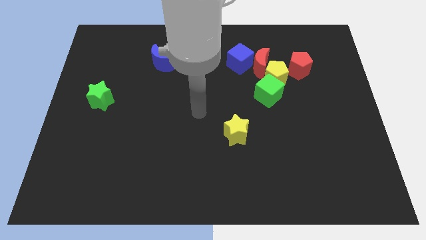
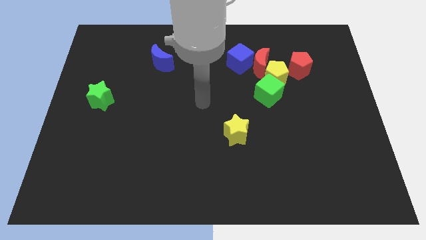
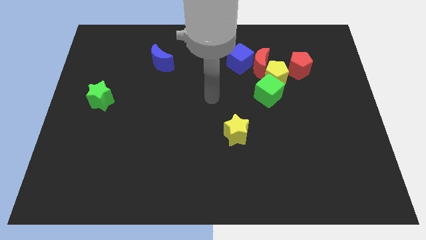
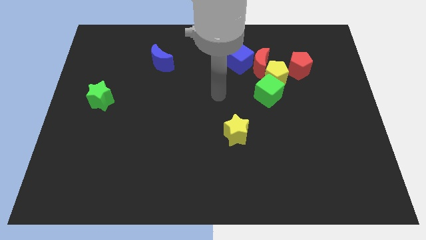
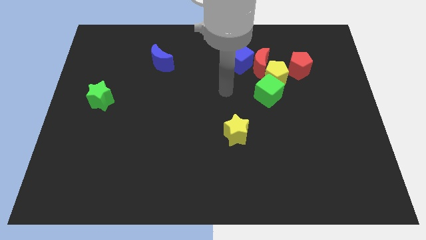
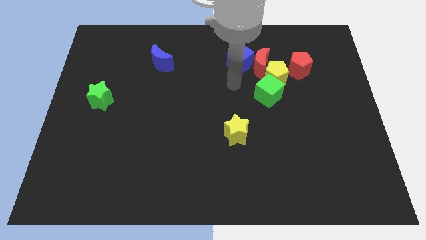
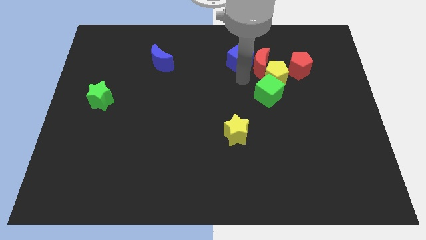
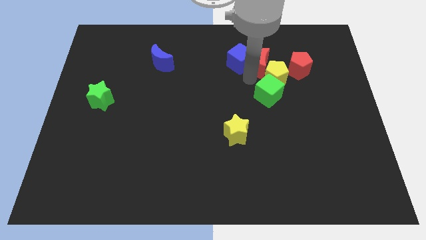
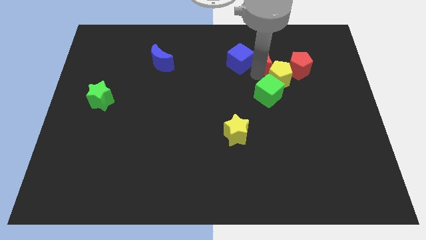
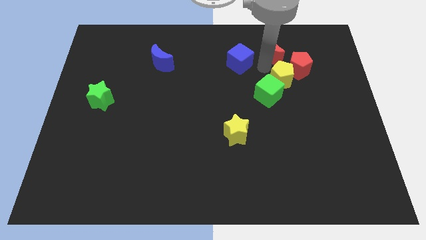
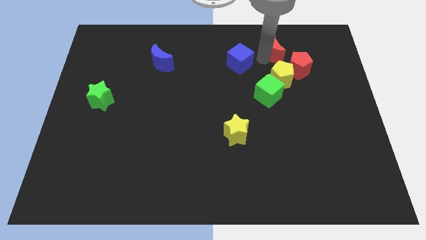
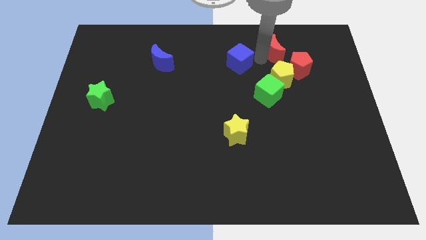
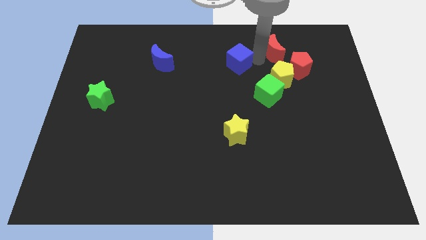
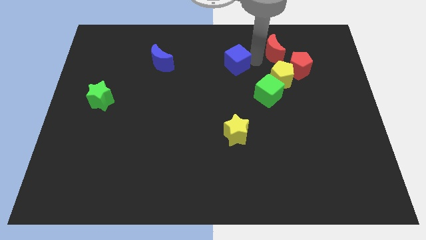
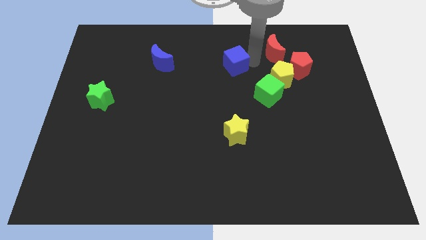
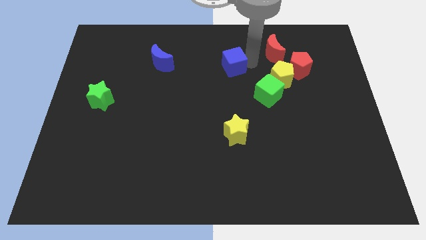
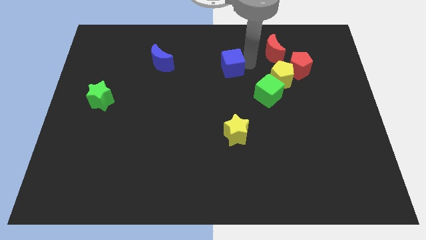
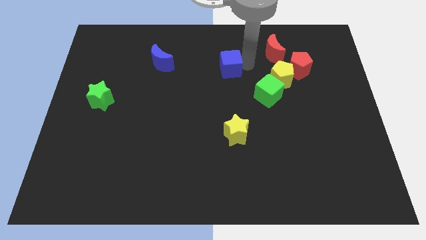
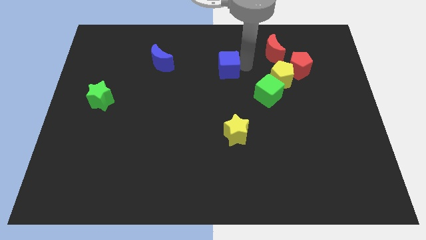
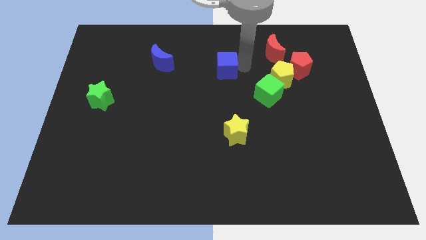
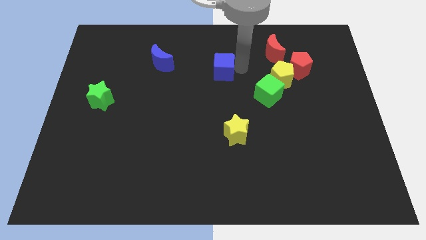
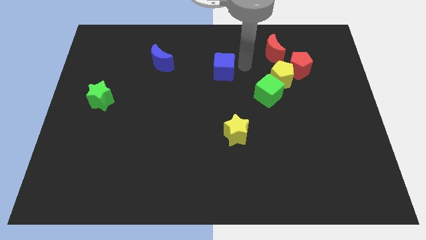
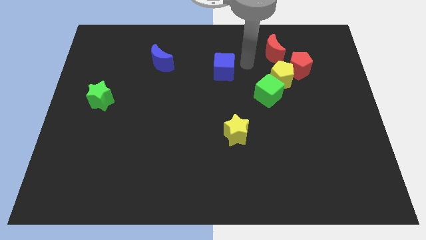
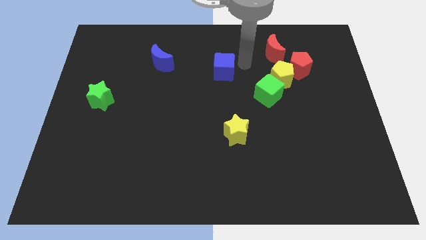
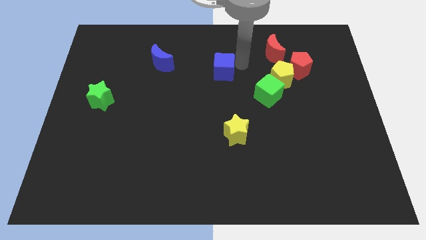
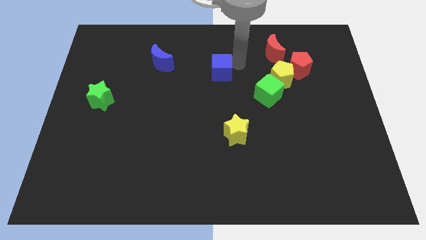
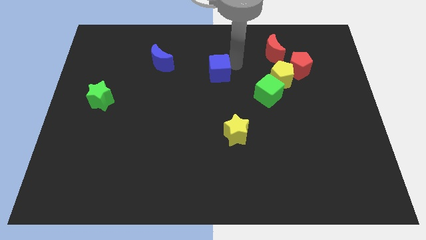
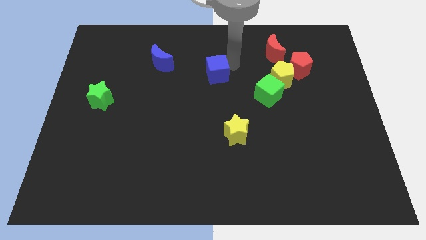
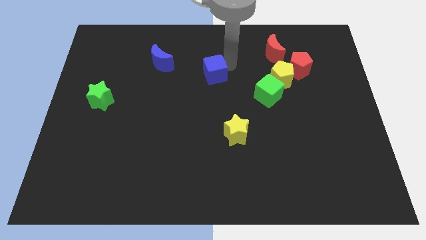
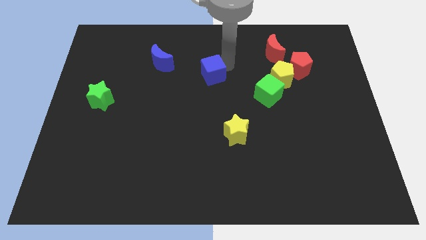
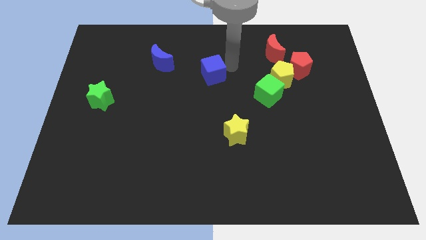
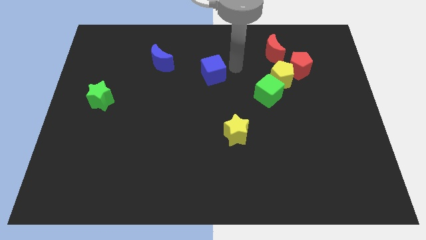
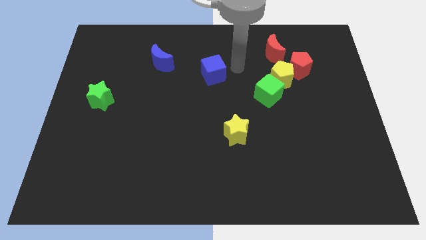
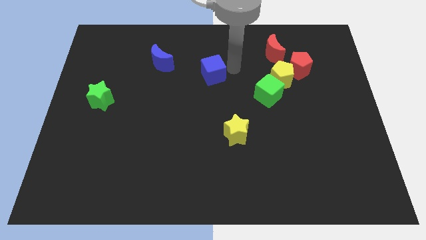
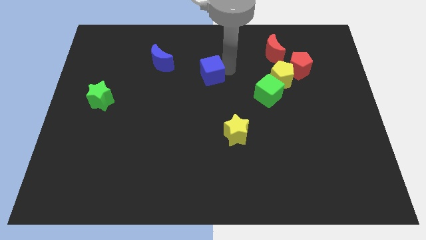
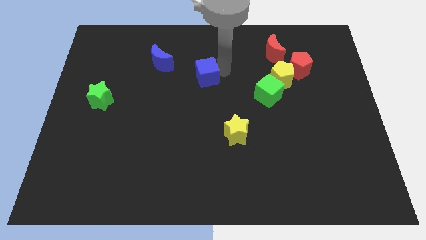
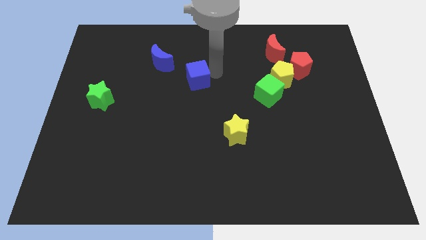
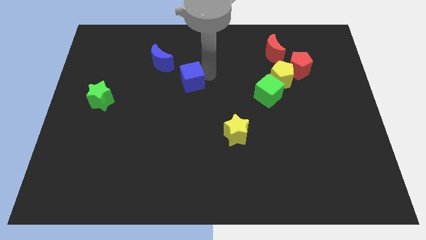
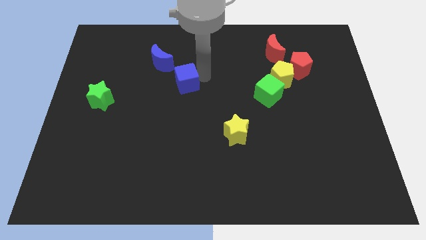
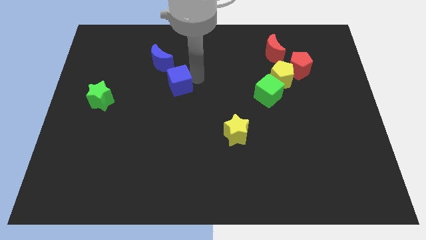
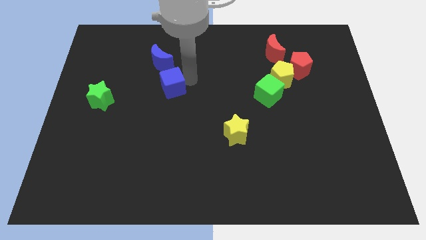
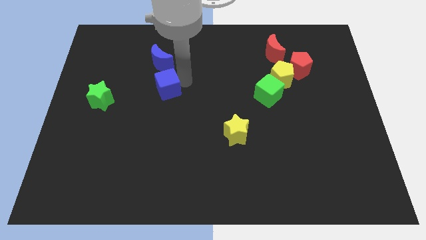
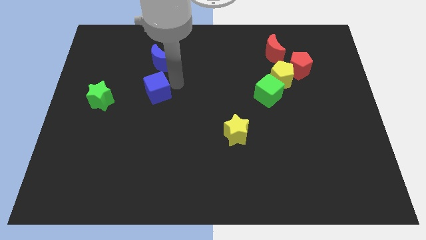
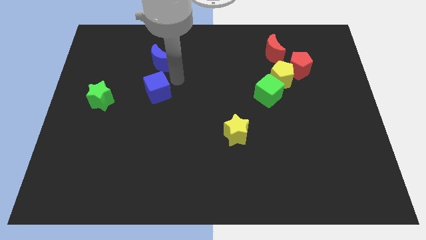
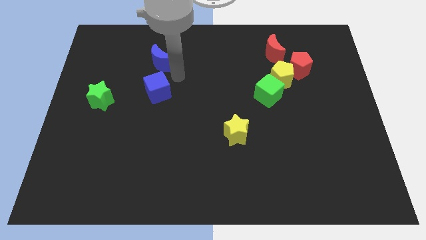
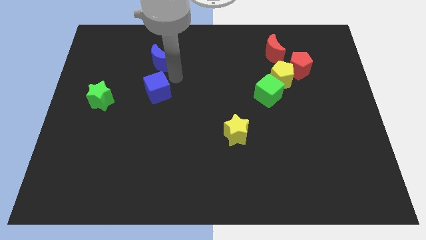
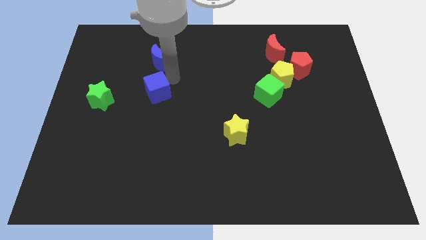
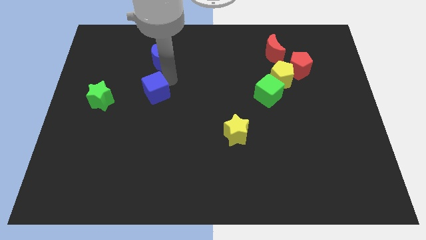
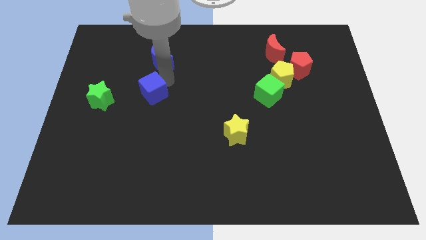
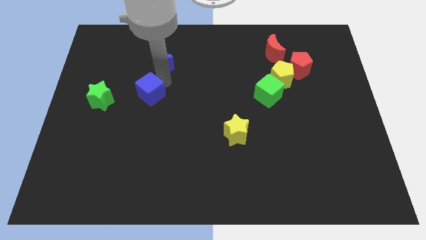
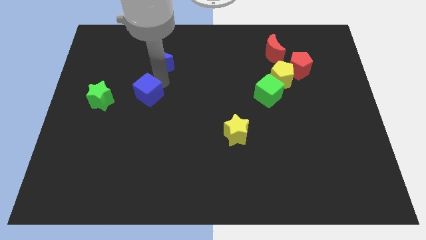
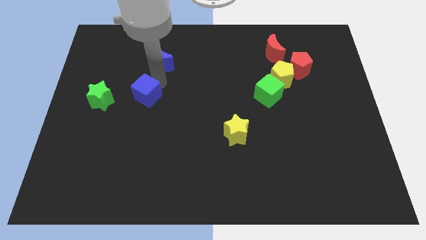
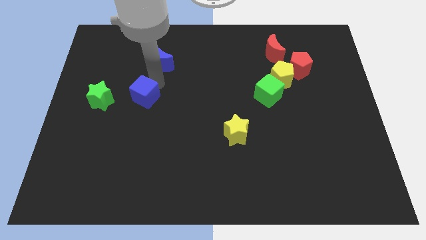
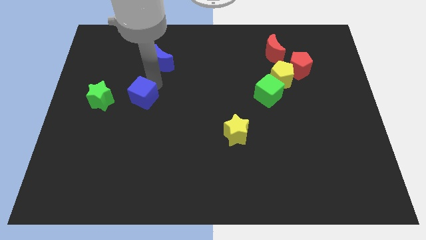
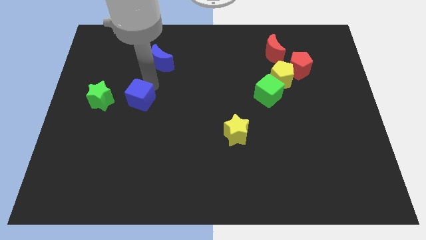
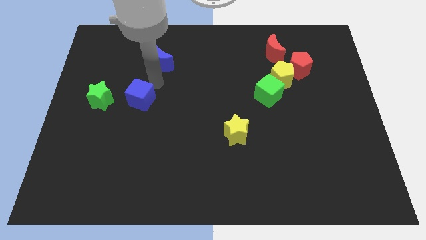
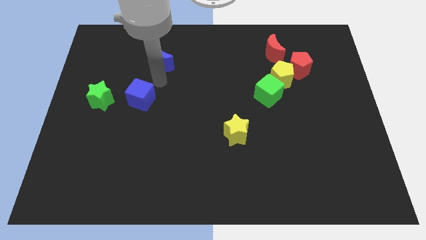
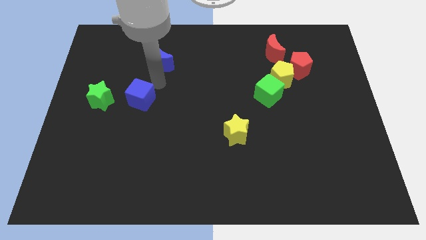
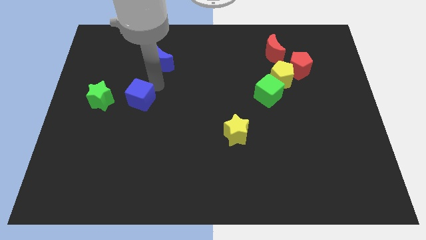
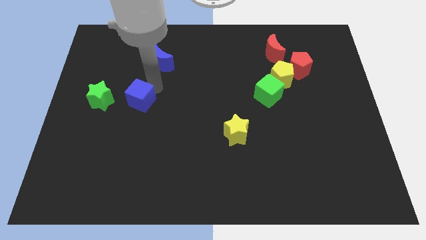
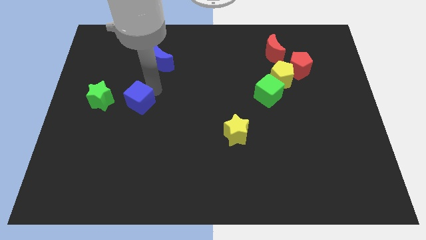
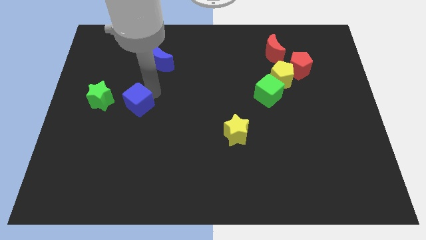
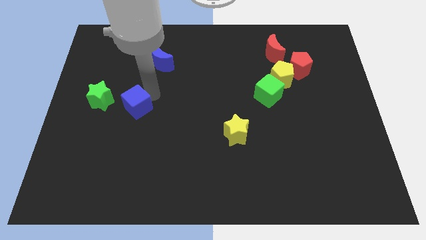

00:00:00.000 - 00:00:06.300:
slide the blue cube to the bottom right side of the green star
